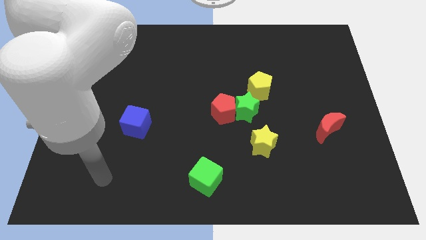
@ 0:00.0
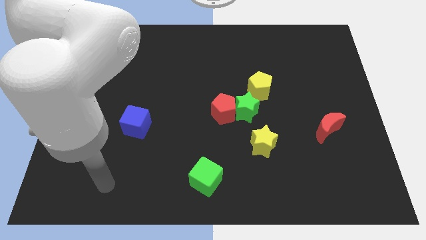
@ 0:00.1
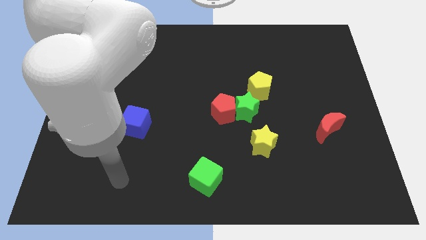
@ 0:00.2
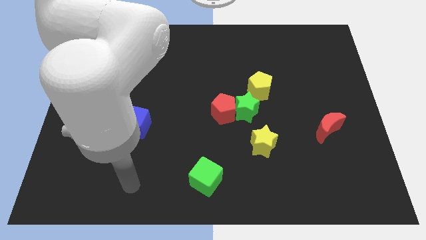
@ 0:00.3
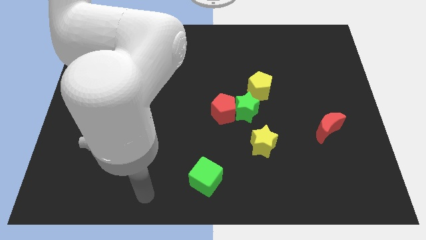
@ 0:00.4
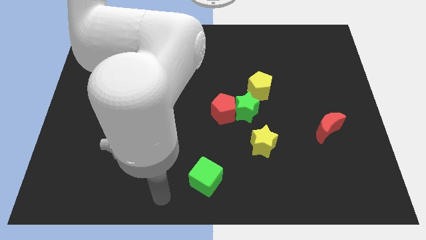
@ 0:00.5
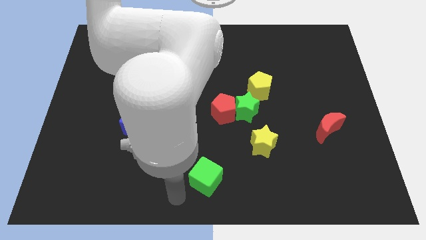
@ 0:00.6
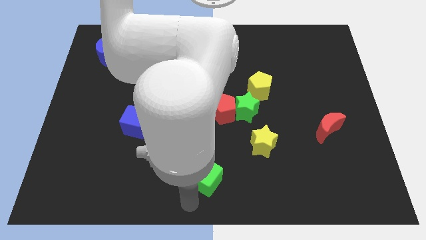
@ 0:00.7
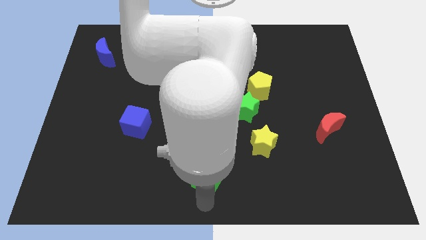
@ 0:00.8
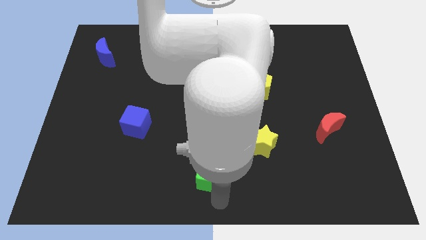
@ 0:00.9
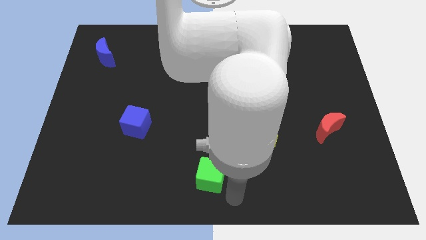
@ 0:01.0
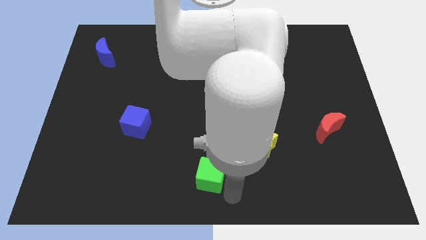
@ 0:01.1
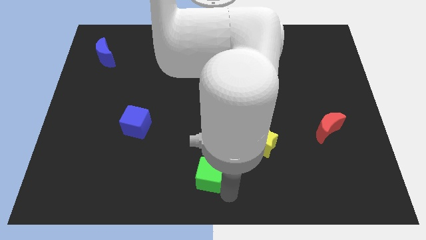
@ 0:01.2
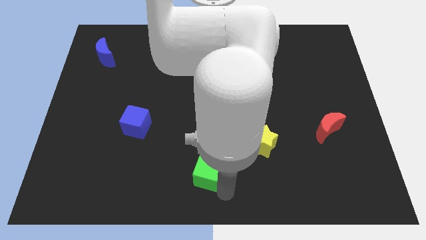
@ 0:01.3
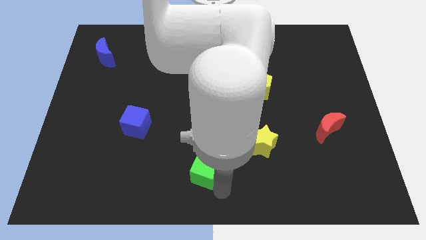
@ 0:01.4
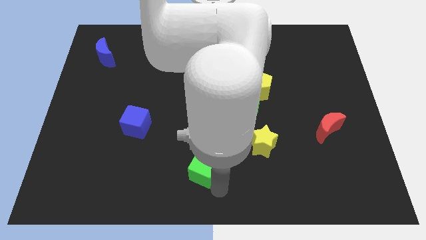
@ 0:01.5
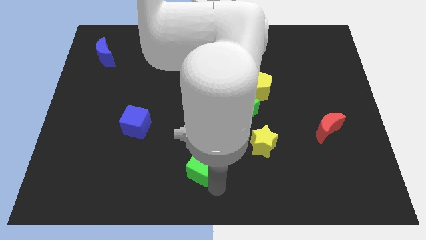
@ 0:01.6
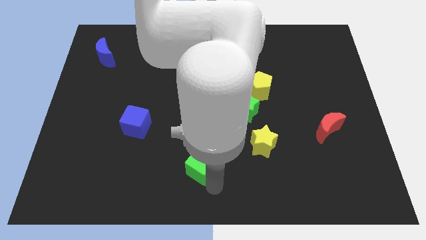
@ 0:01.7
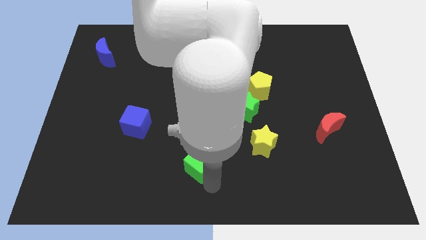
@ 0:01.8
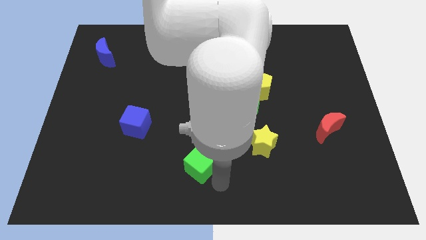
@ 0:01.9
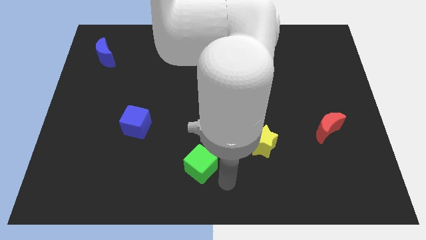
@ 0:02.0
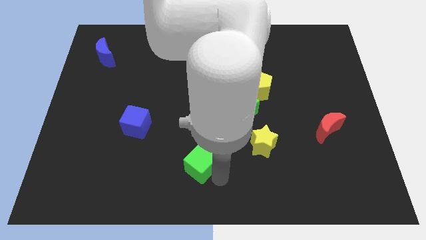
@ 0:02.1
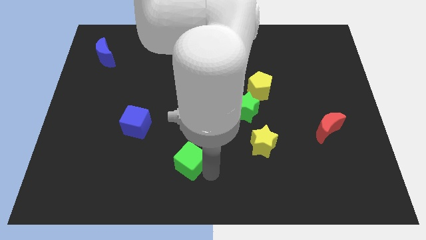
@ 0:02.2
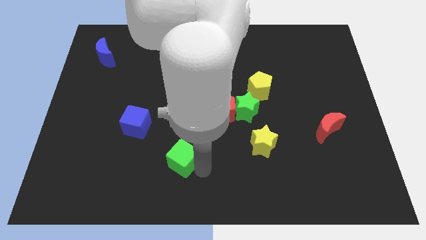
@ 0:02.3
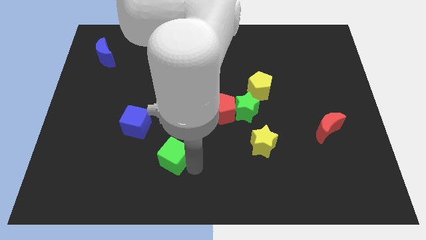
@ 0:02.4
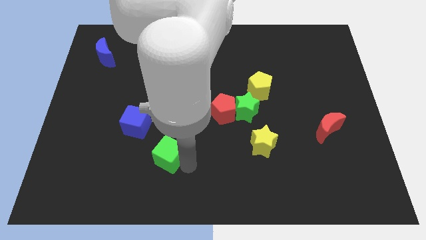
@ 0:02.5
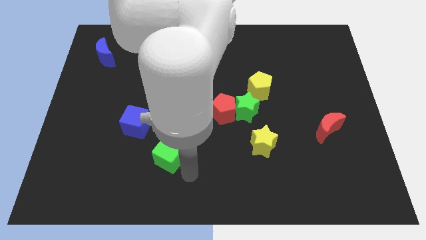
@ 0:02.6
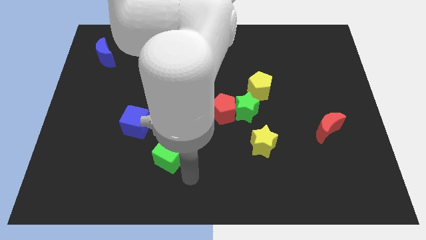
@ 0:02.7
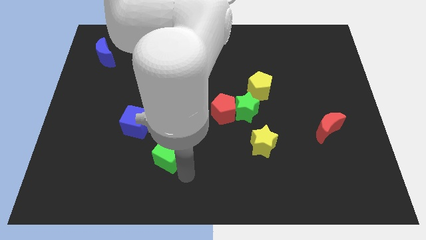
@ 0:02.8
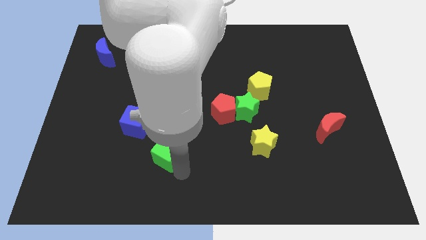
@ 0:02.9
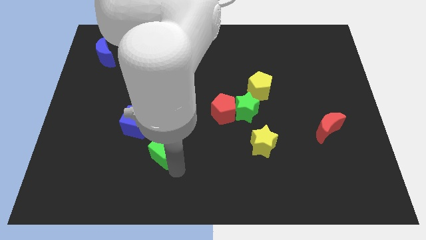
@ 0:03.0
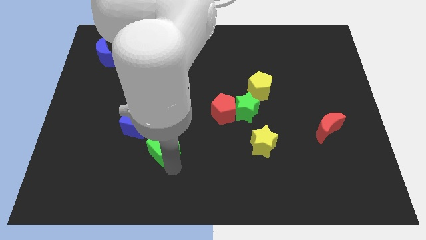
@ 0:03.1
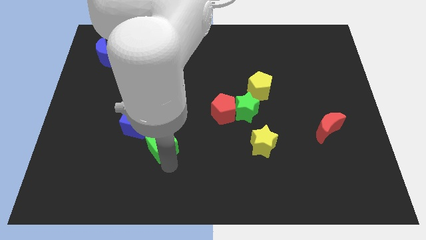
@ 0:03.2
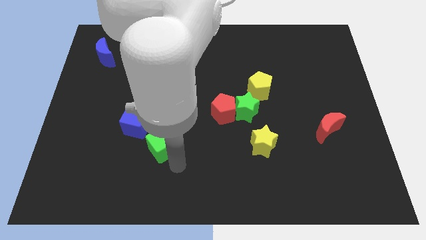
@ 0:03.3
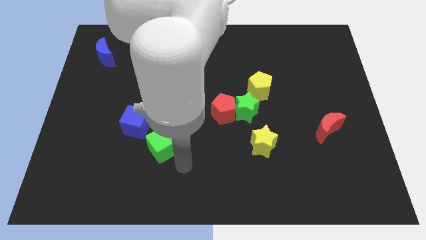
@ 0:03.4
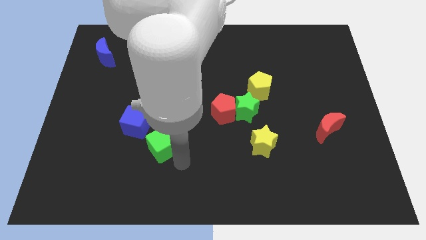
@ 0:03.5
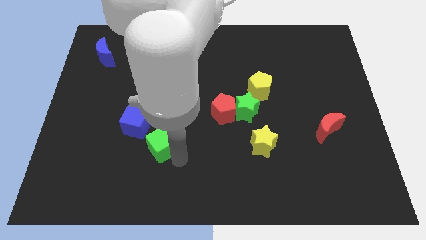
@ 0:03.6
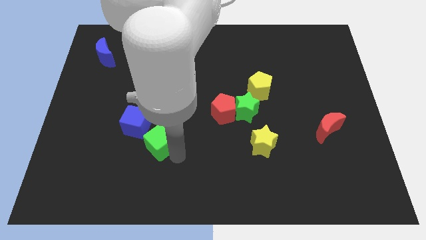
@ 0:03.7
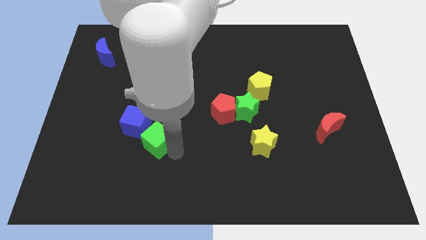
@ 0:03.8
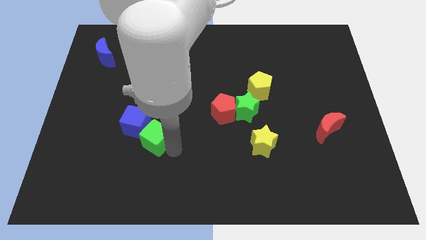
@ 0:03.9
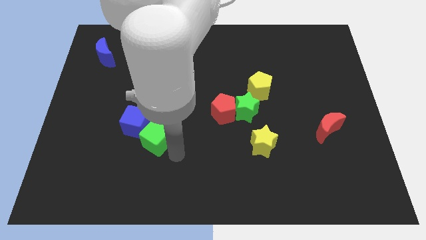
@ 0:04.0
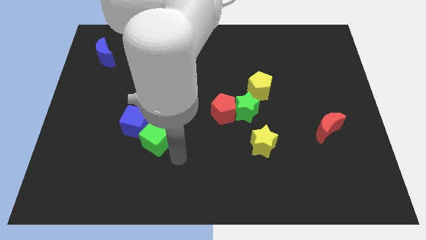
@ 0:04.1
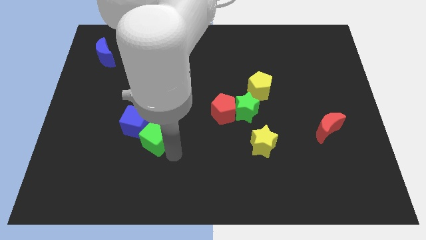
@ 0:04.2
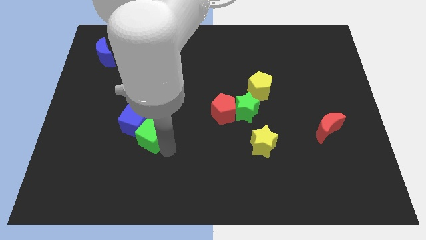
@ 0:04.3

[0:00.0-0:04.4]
push the green cube next to the blue cube

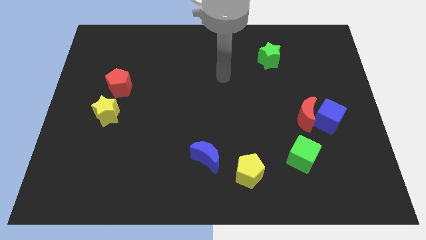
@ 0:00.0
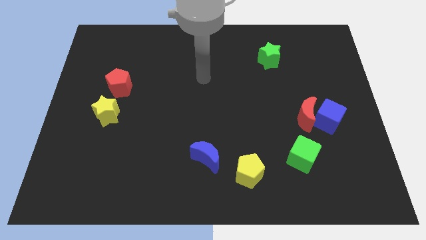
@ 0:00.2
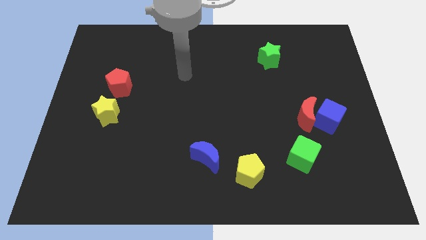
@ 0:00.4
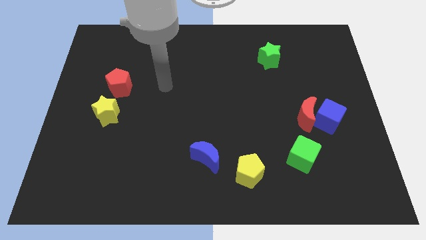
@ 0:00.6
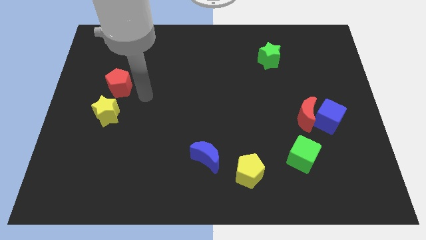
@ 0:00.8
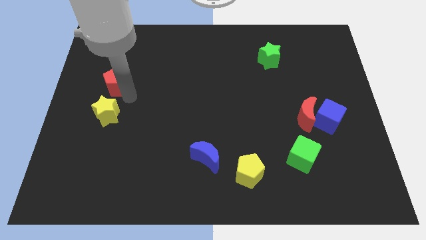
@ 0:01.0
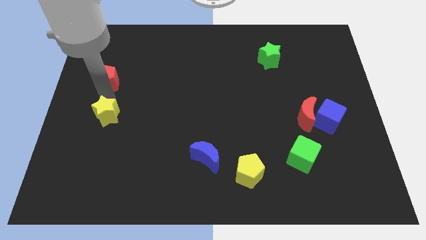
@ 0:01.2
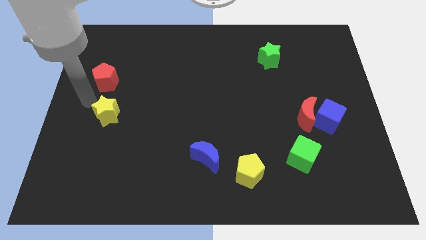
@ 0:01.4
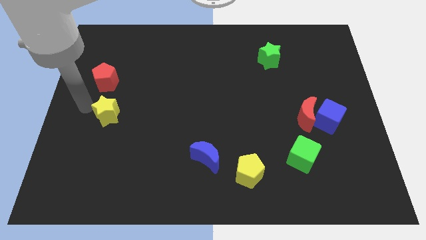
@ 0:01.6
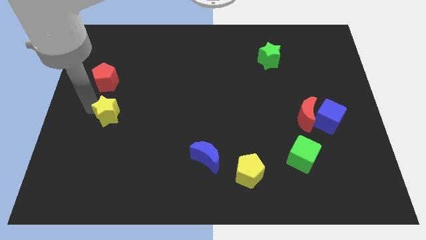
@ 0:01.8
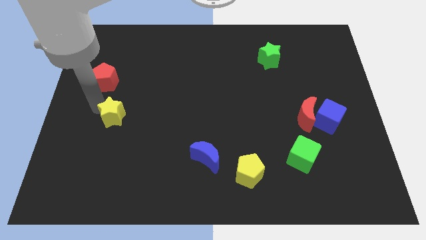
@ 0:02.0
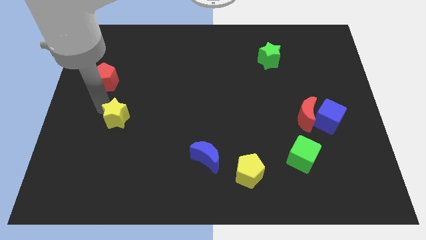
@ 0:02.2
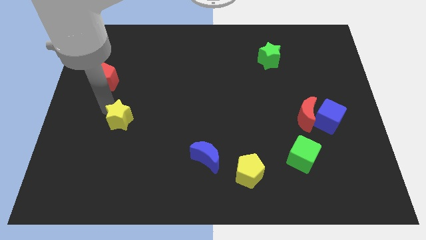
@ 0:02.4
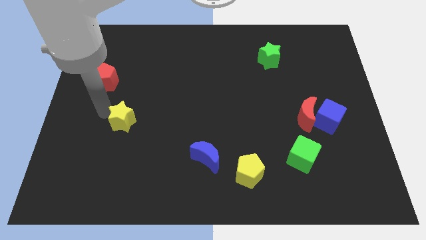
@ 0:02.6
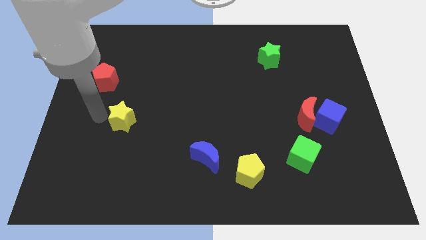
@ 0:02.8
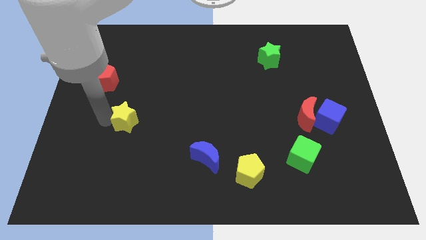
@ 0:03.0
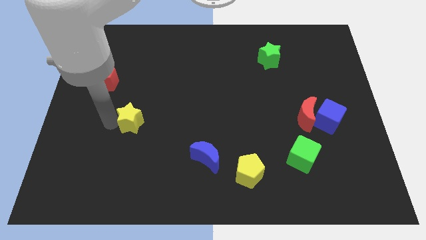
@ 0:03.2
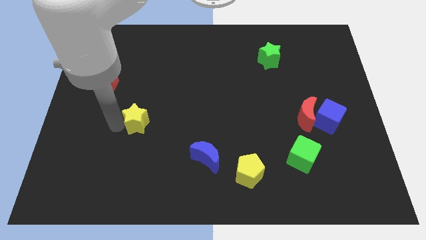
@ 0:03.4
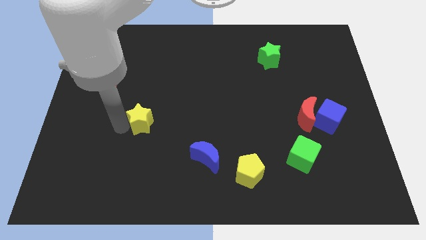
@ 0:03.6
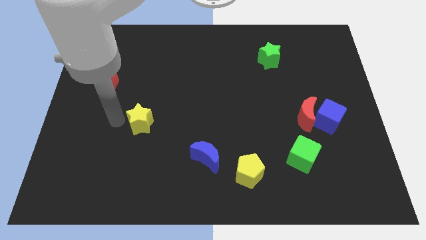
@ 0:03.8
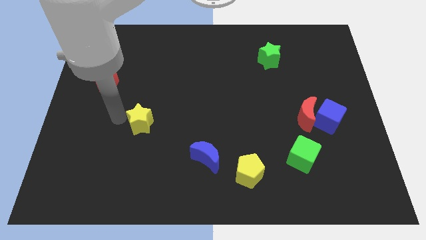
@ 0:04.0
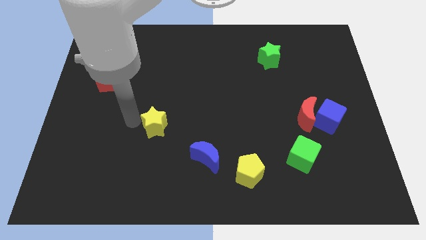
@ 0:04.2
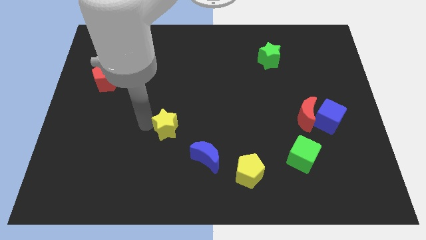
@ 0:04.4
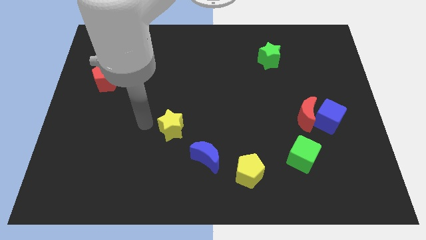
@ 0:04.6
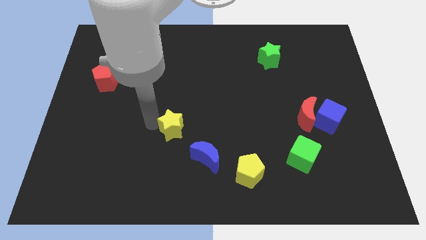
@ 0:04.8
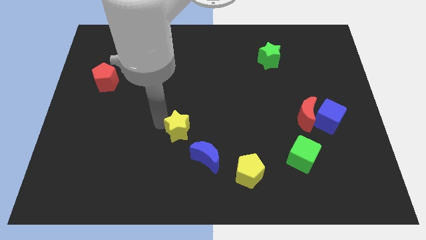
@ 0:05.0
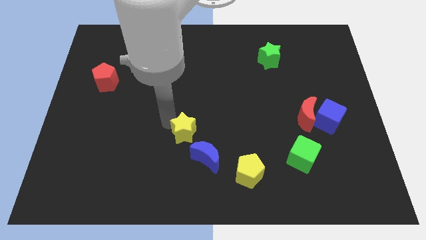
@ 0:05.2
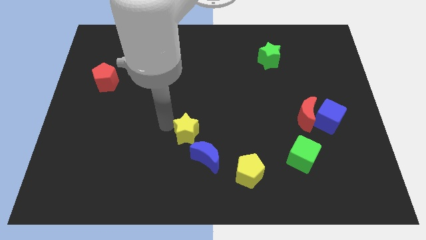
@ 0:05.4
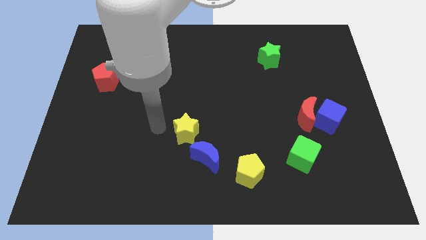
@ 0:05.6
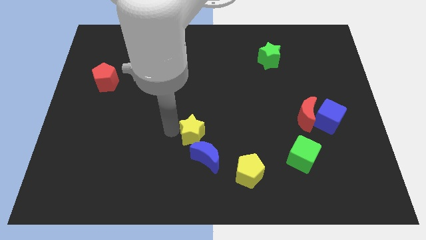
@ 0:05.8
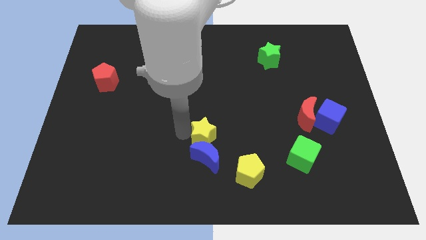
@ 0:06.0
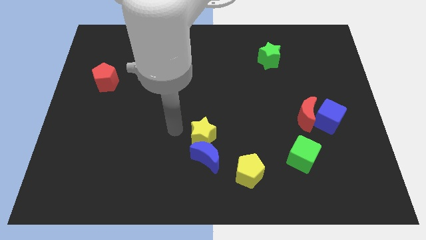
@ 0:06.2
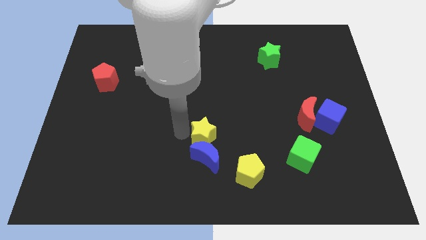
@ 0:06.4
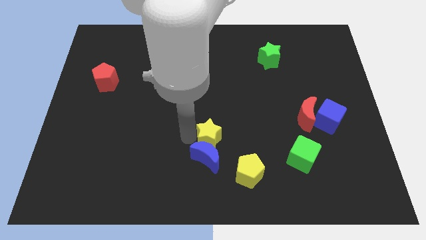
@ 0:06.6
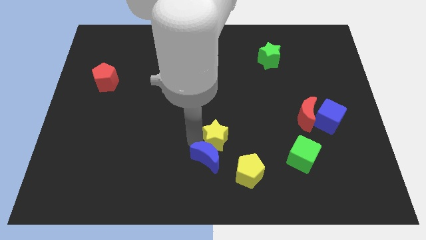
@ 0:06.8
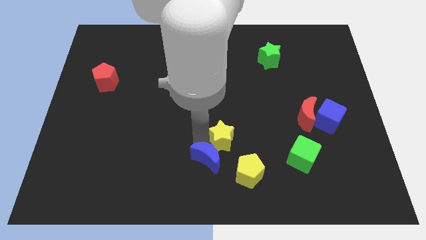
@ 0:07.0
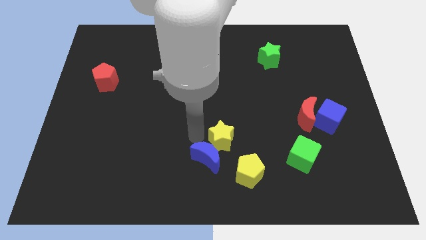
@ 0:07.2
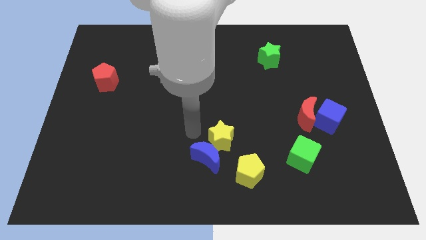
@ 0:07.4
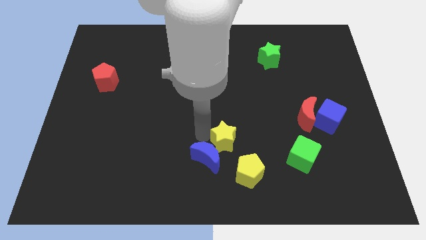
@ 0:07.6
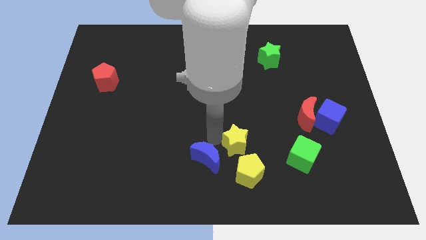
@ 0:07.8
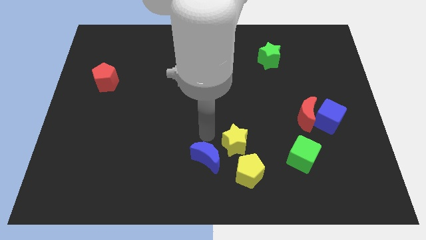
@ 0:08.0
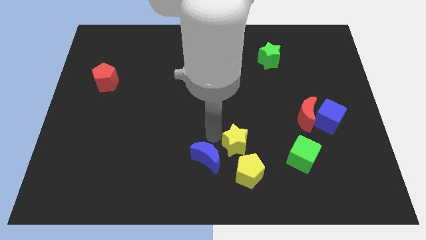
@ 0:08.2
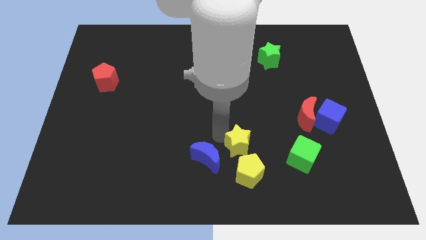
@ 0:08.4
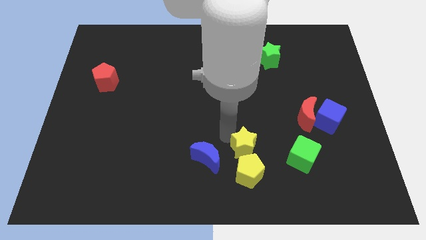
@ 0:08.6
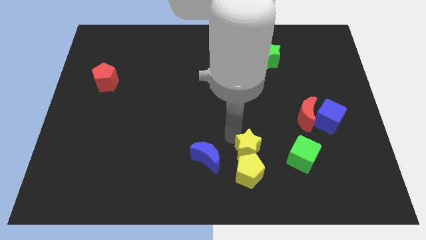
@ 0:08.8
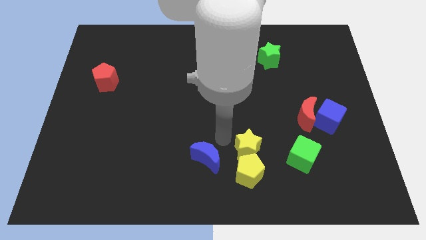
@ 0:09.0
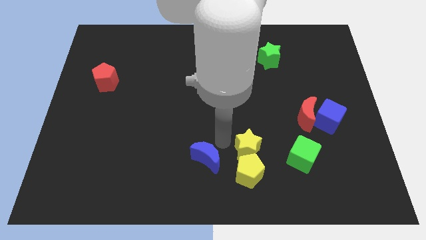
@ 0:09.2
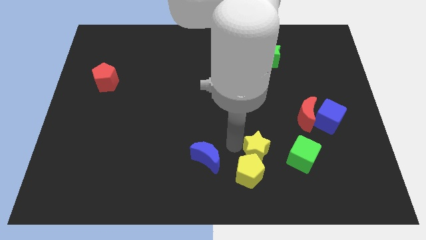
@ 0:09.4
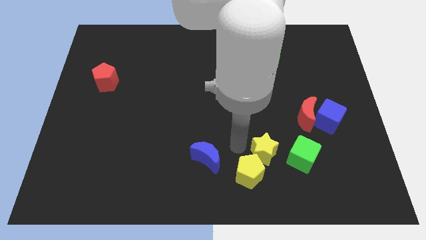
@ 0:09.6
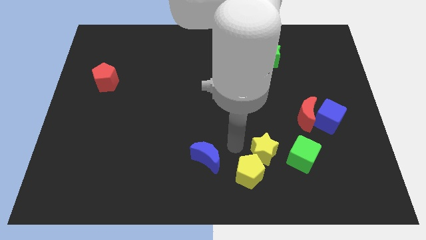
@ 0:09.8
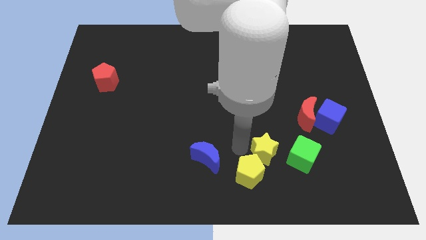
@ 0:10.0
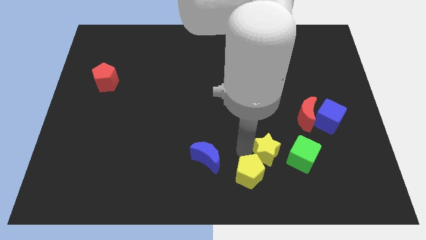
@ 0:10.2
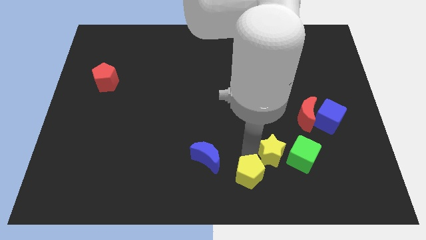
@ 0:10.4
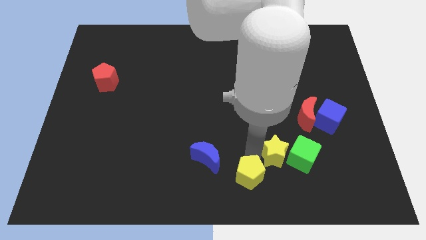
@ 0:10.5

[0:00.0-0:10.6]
push the yellow star to the green cube
